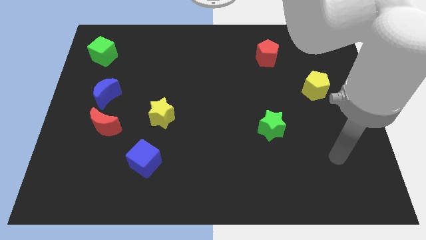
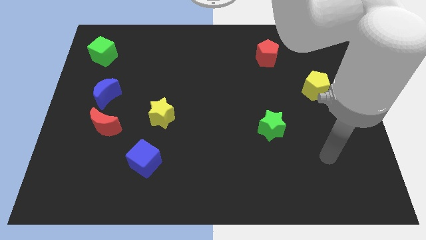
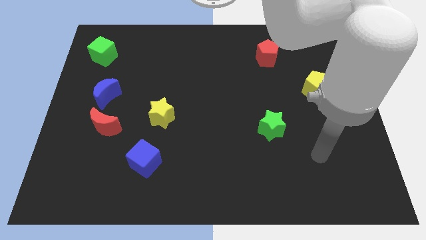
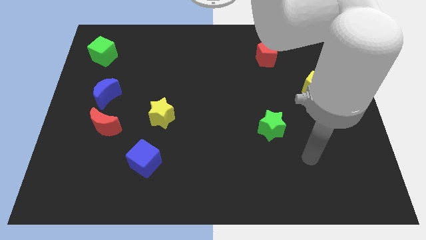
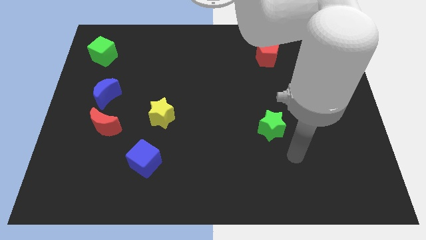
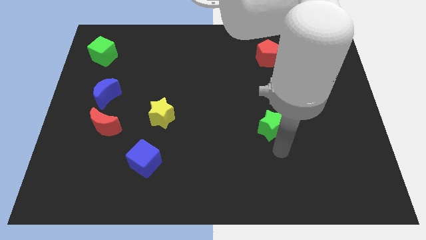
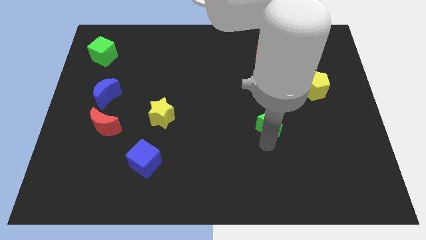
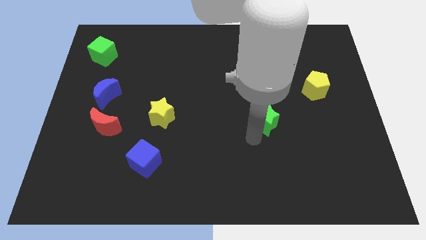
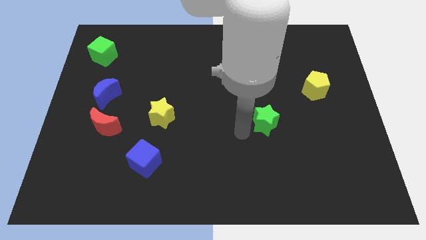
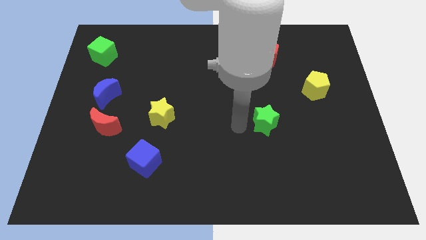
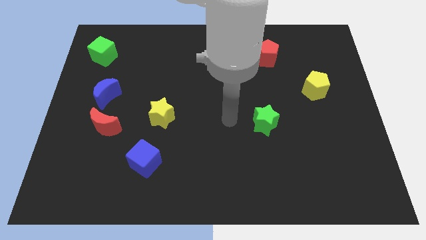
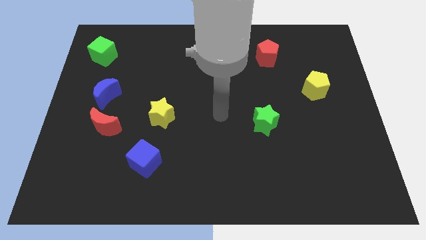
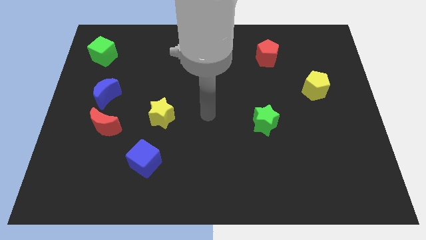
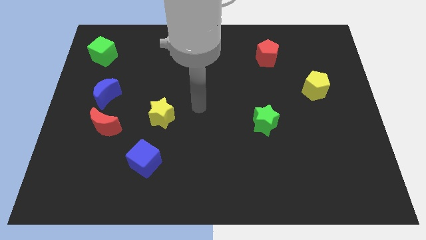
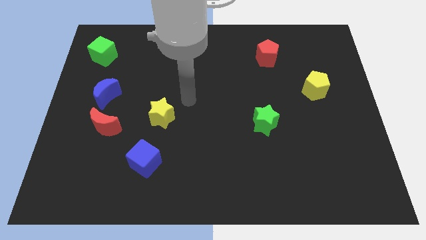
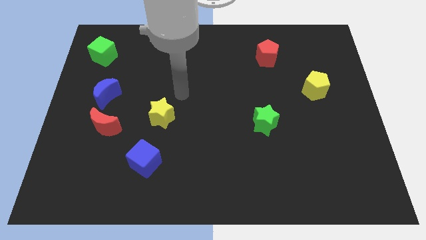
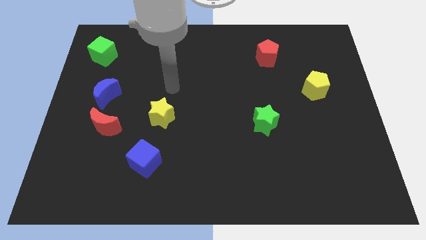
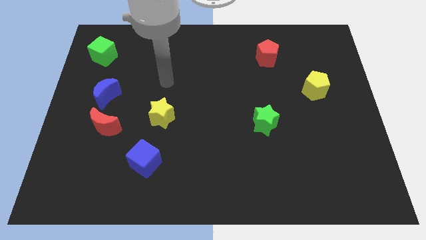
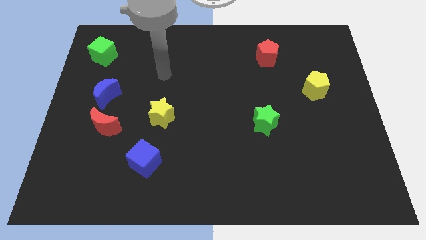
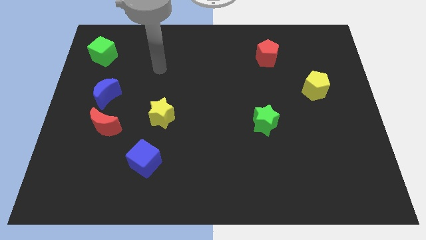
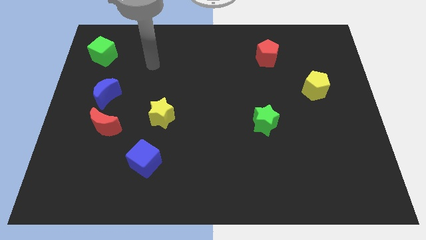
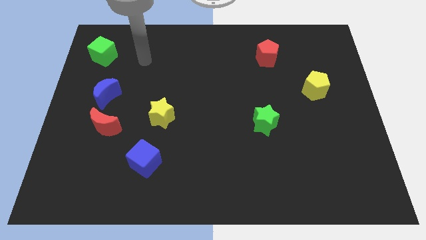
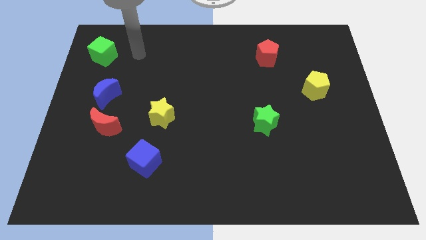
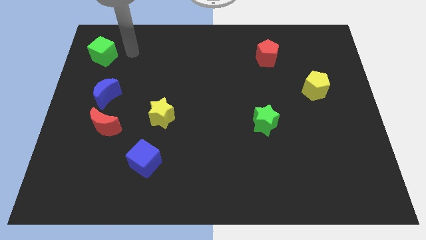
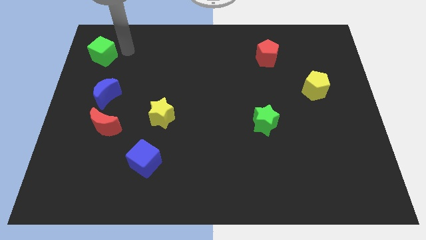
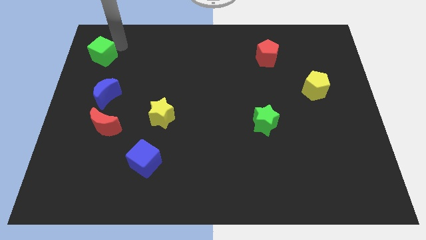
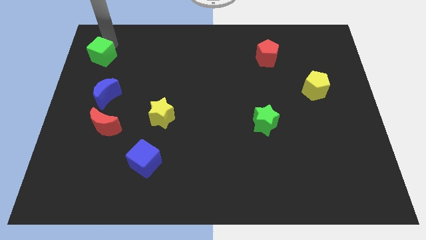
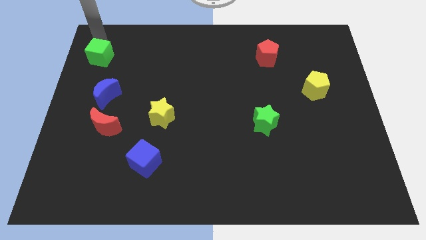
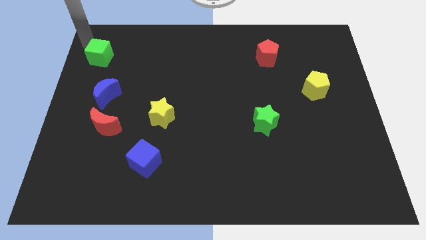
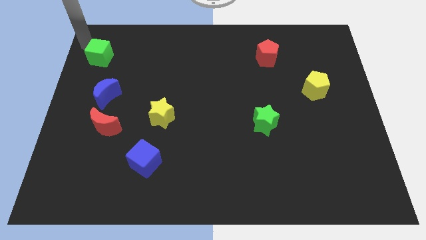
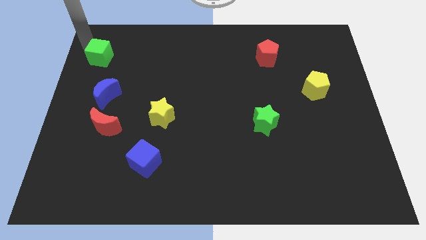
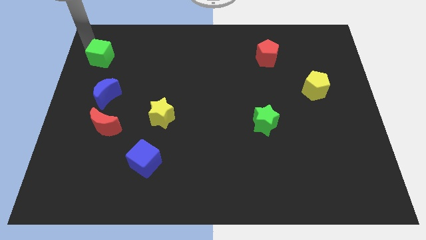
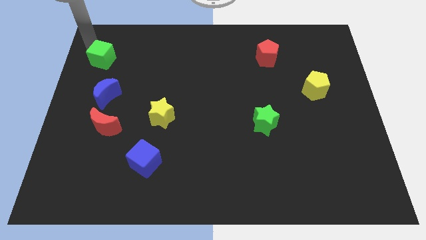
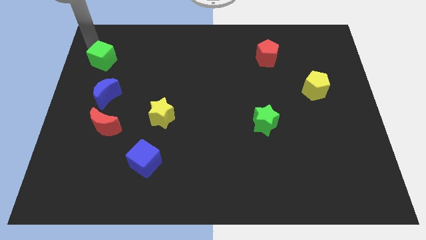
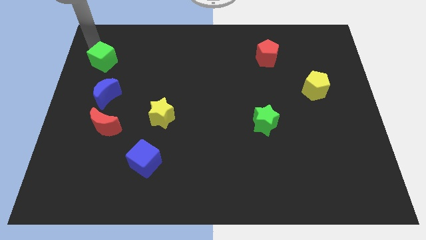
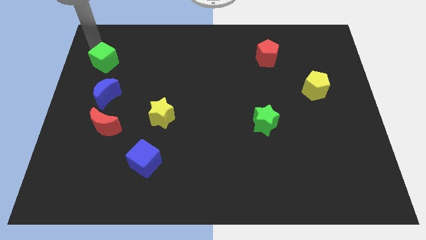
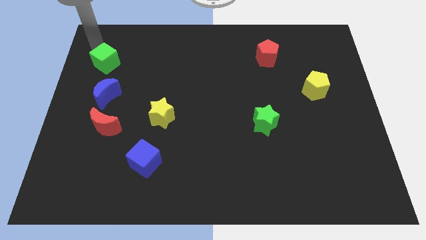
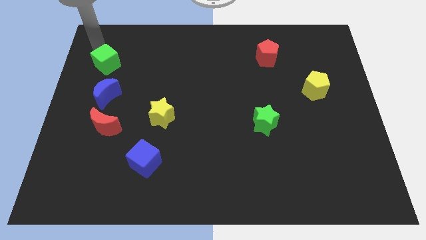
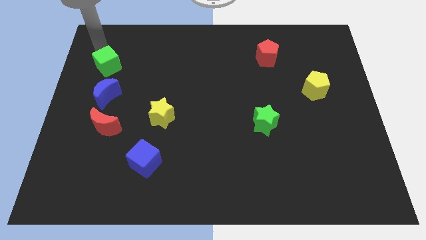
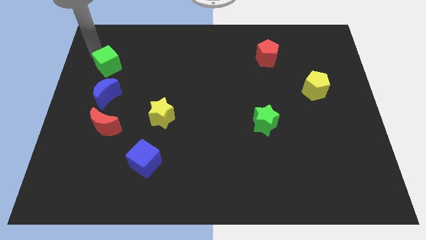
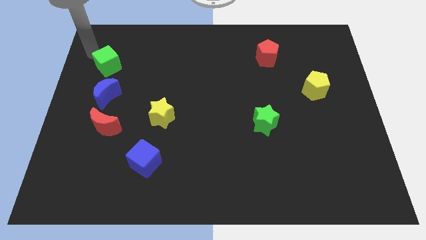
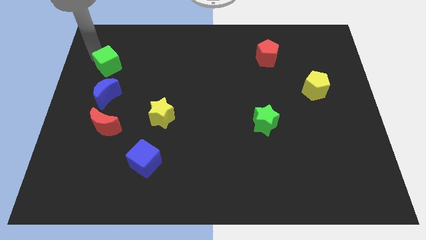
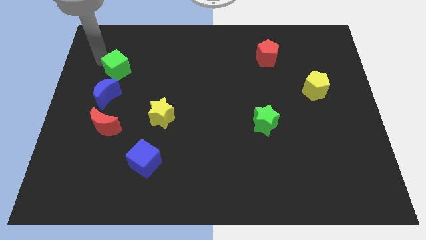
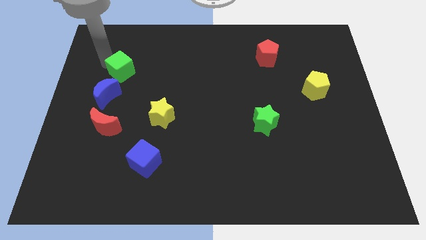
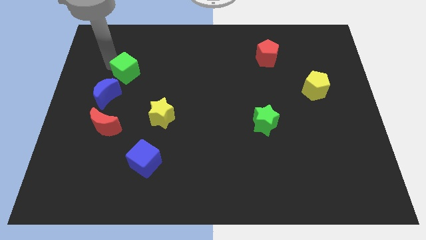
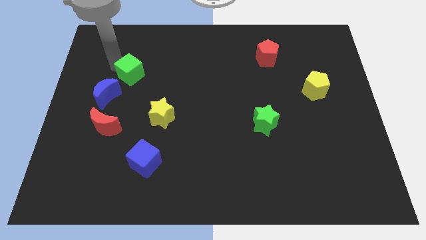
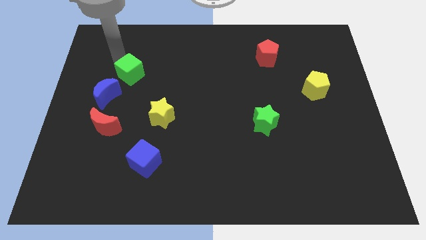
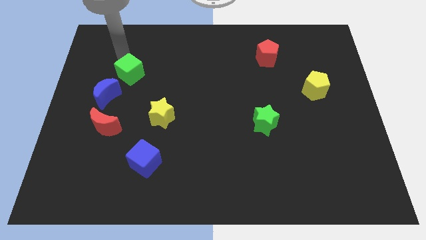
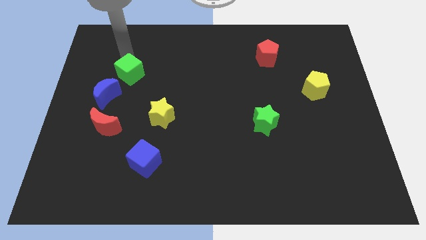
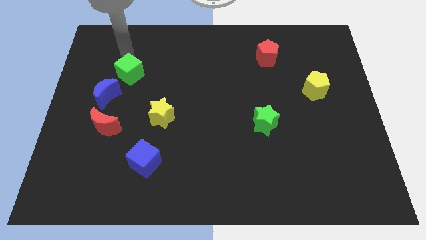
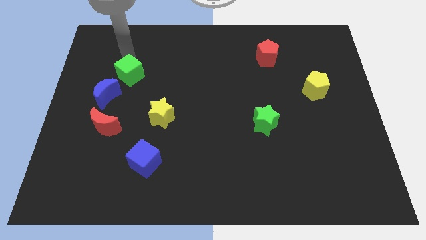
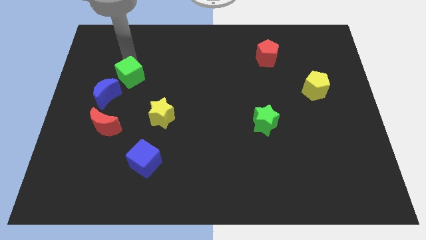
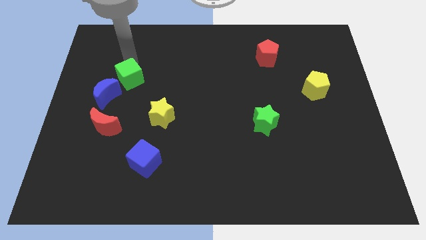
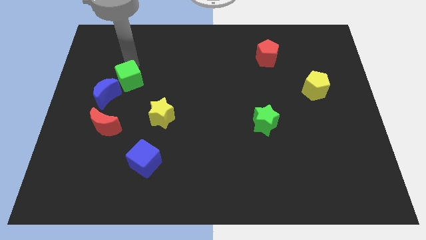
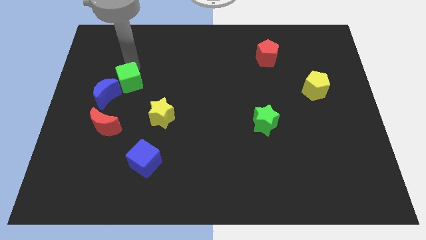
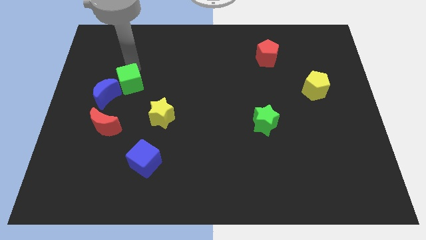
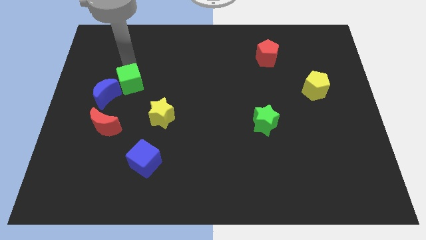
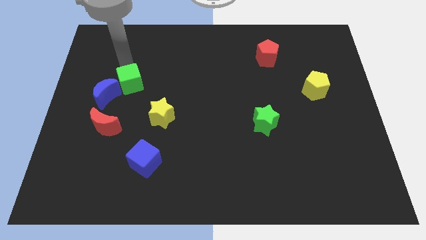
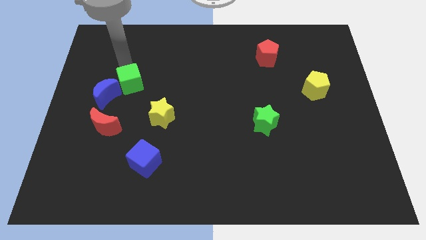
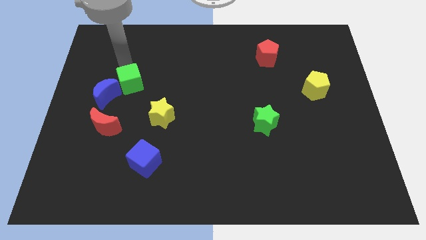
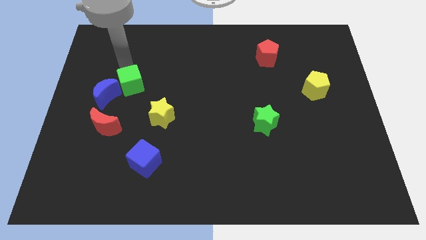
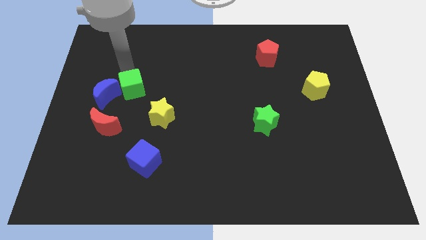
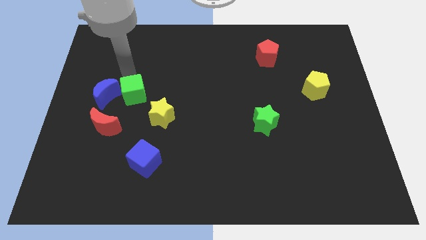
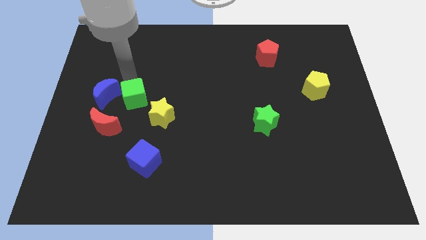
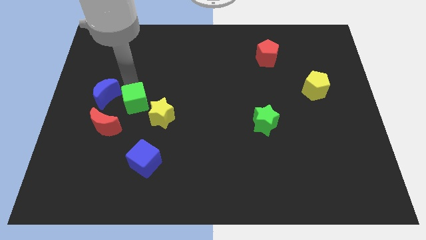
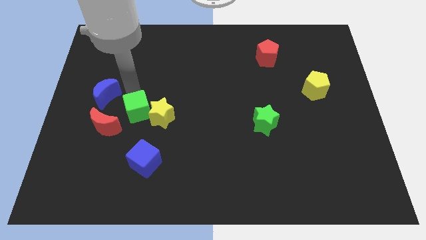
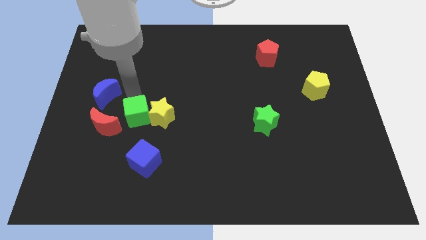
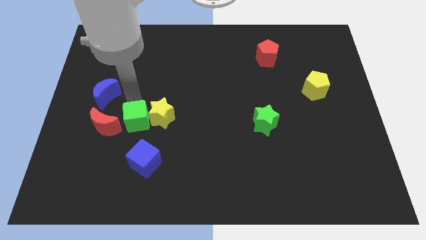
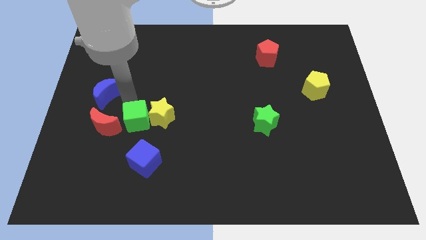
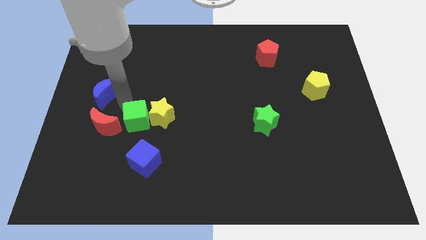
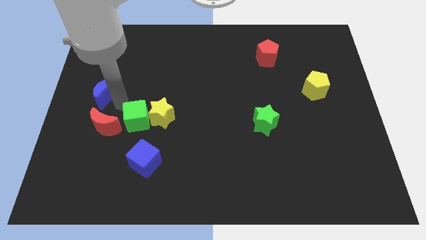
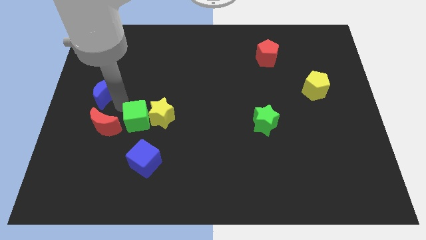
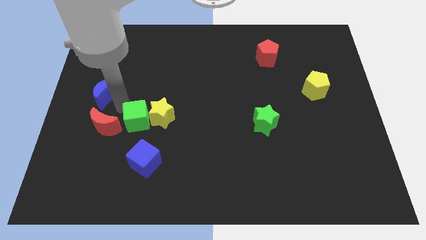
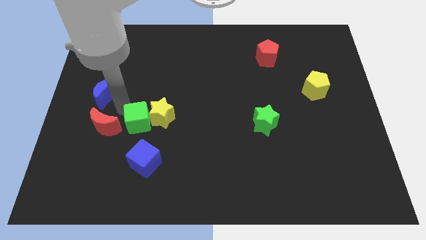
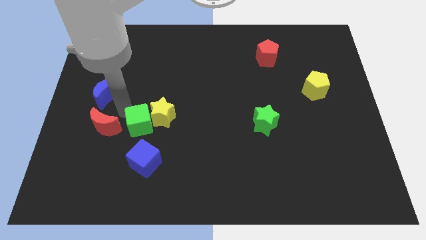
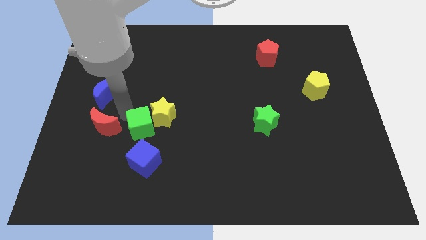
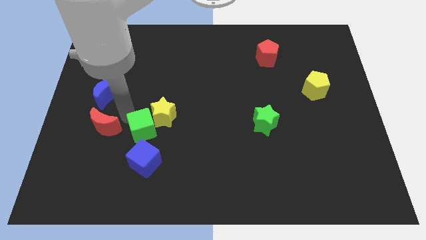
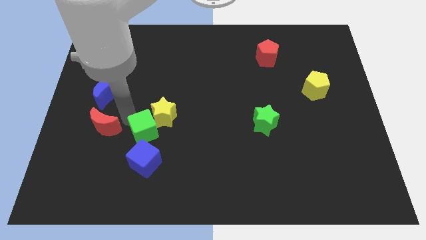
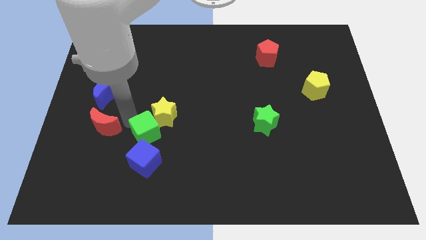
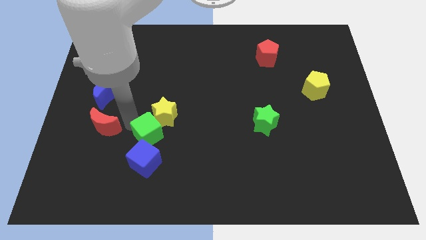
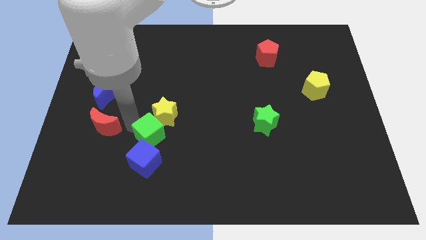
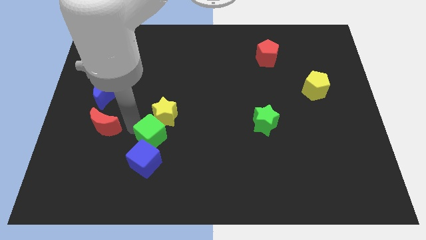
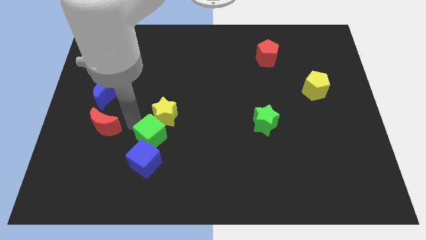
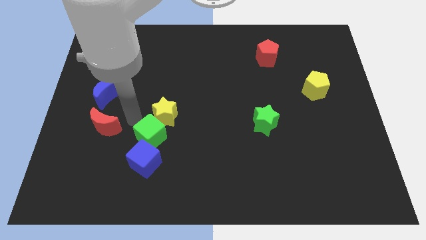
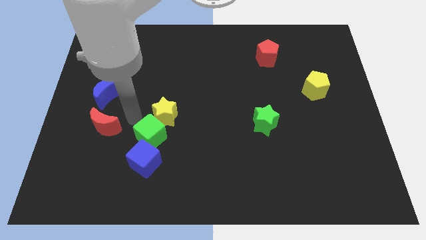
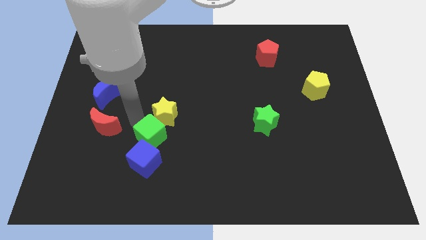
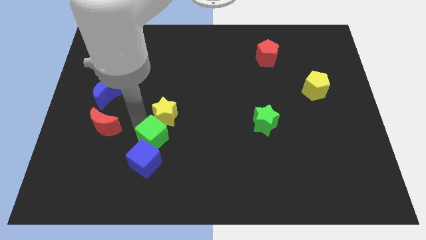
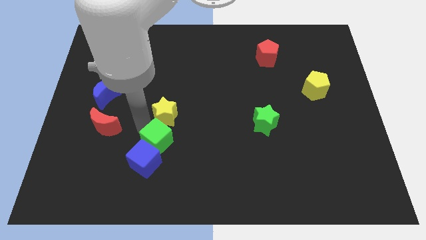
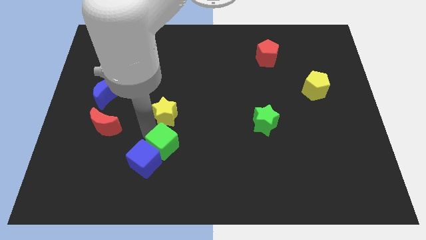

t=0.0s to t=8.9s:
slide the green cube right of the blue cube
